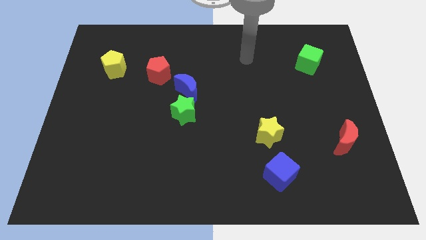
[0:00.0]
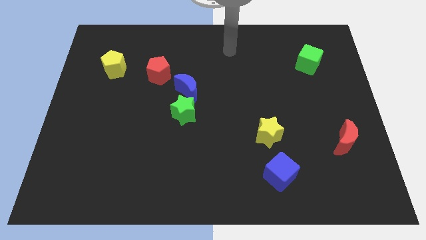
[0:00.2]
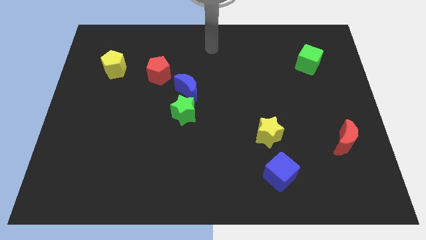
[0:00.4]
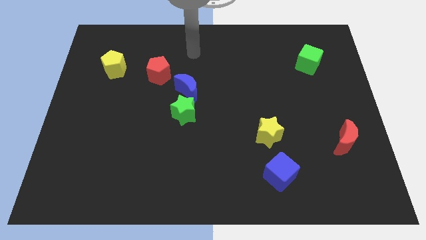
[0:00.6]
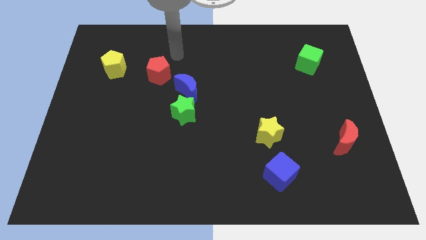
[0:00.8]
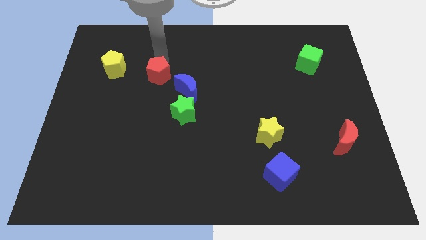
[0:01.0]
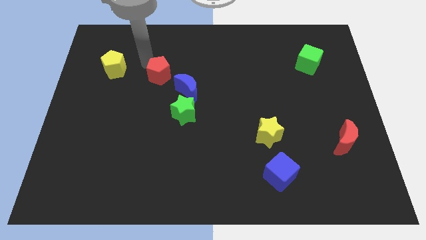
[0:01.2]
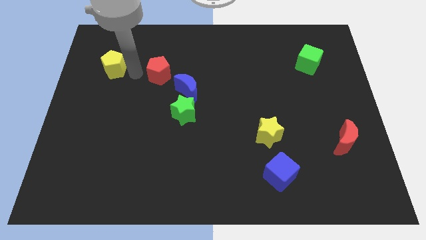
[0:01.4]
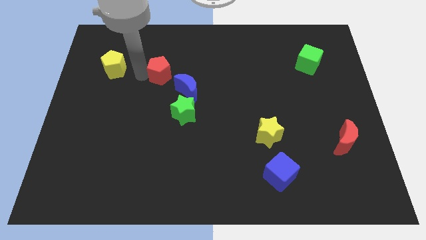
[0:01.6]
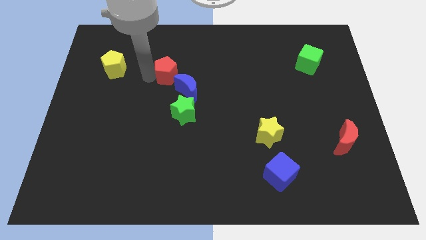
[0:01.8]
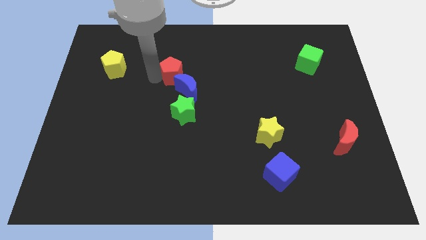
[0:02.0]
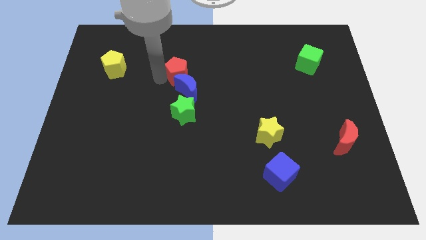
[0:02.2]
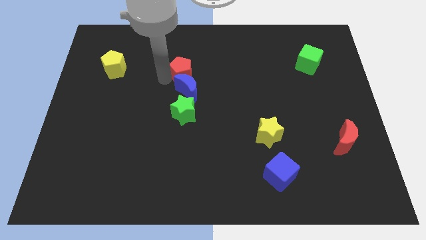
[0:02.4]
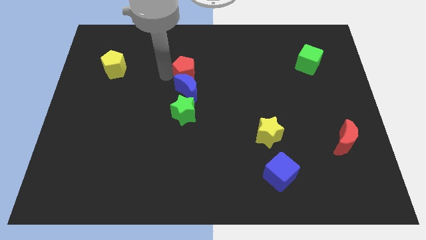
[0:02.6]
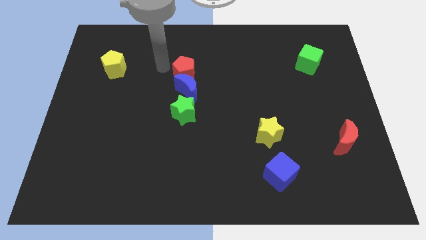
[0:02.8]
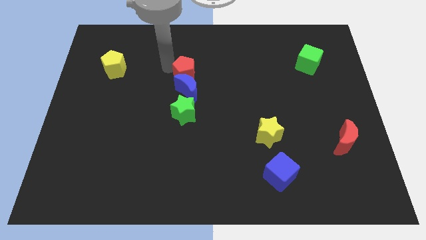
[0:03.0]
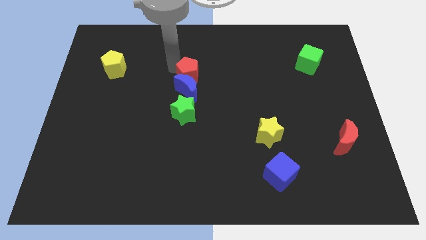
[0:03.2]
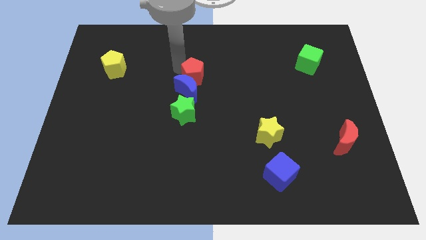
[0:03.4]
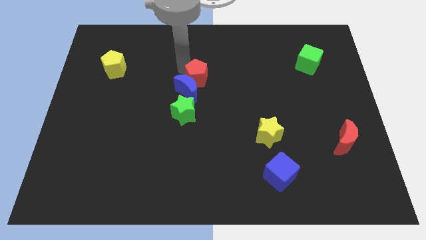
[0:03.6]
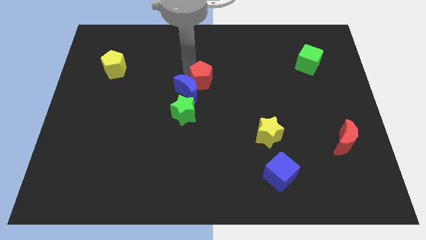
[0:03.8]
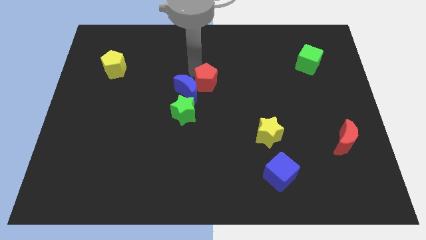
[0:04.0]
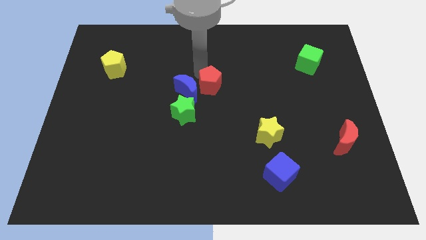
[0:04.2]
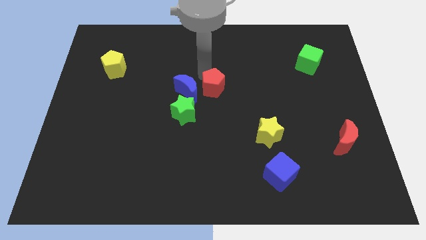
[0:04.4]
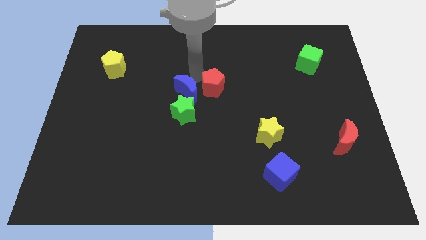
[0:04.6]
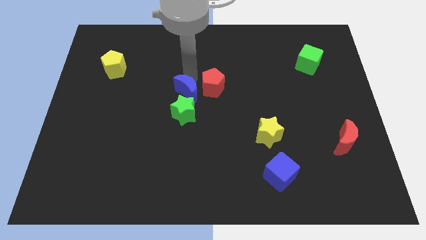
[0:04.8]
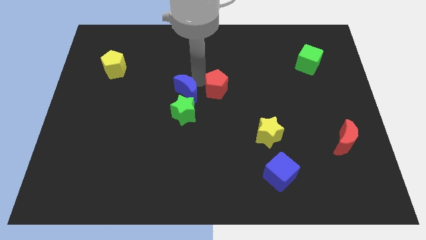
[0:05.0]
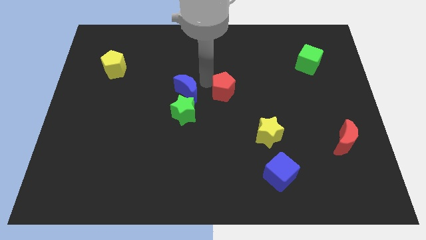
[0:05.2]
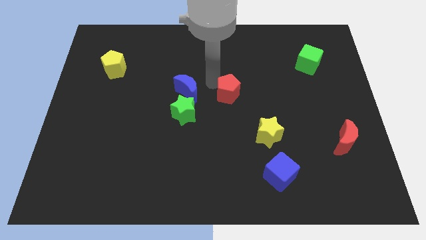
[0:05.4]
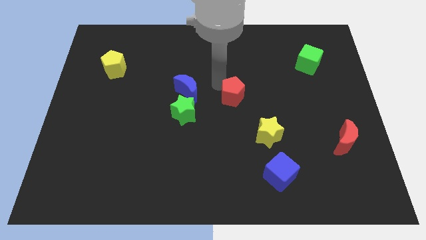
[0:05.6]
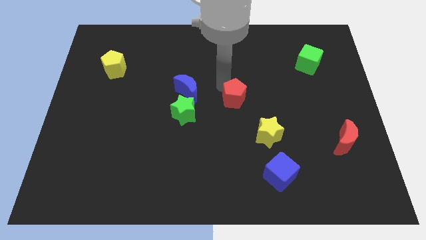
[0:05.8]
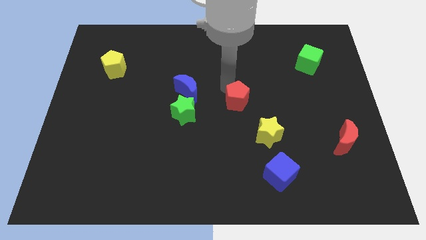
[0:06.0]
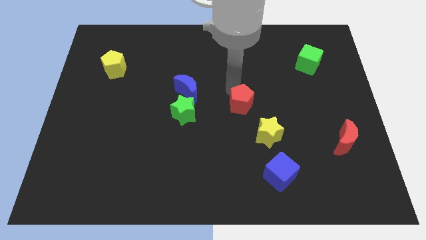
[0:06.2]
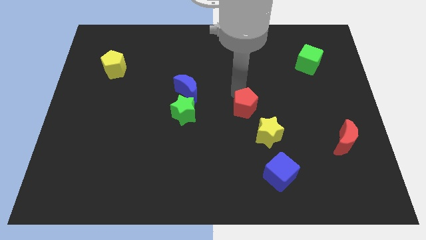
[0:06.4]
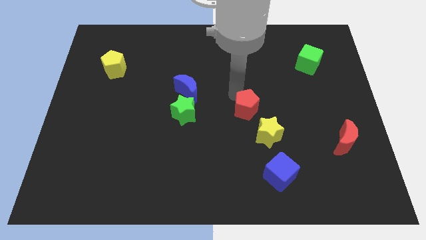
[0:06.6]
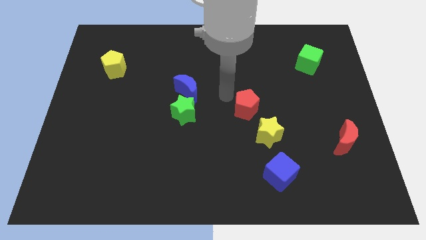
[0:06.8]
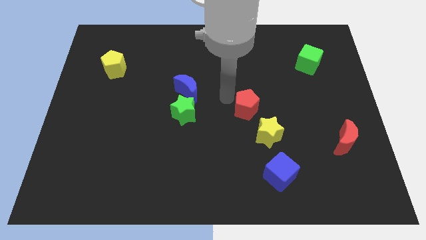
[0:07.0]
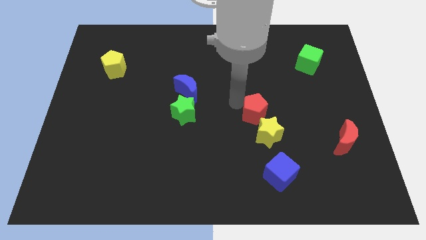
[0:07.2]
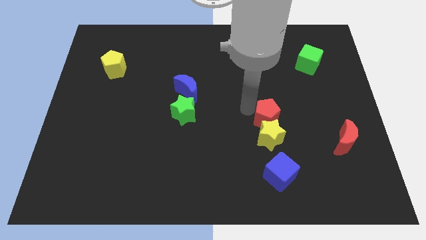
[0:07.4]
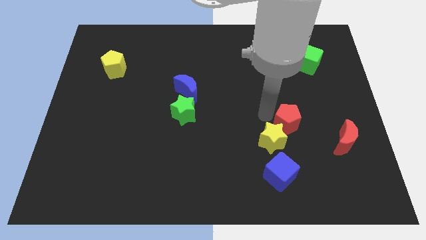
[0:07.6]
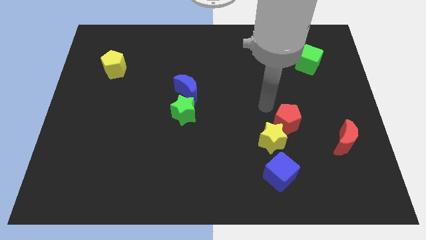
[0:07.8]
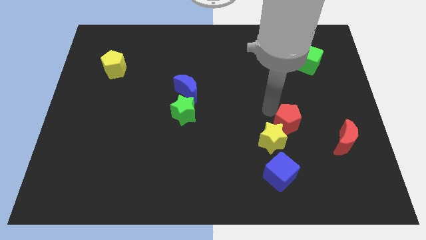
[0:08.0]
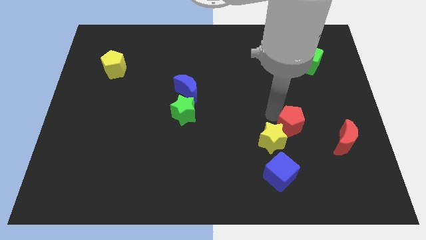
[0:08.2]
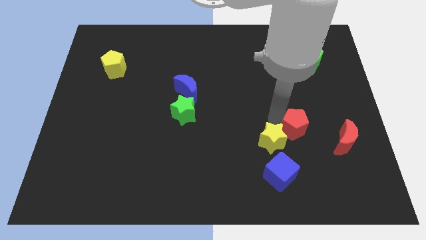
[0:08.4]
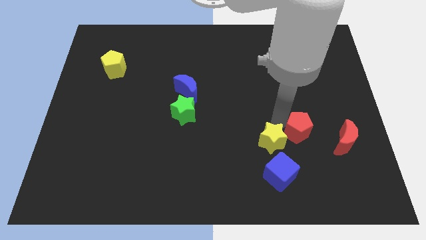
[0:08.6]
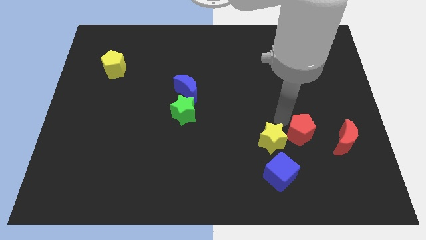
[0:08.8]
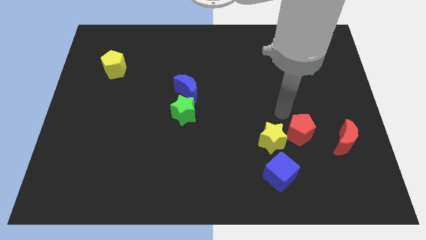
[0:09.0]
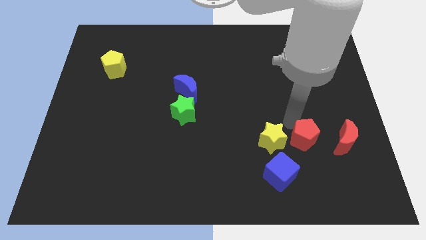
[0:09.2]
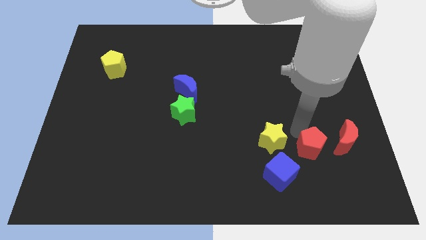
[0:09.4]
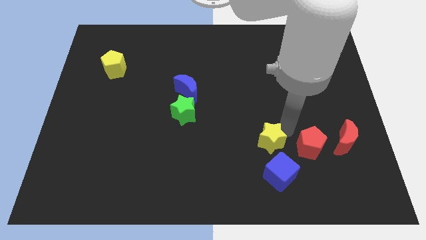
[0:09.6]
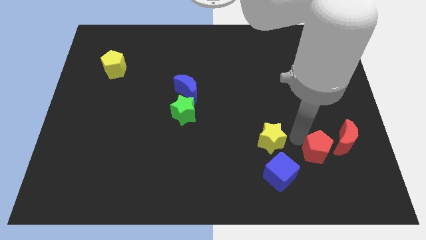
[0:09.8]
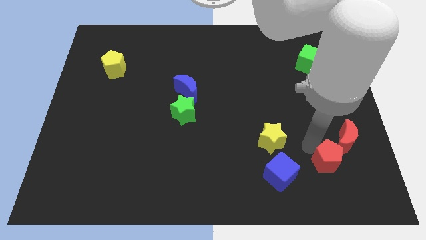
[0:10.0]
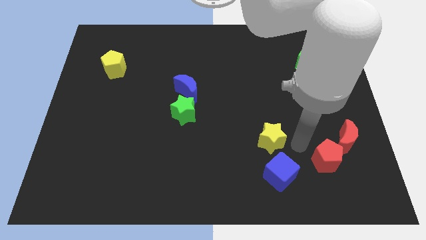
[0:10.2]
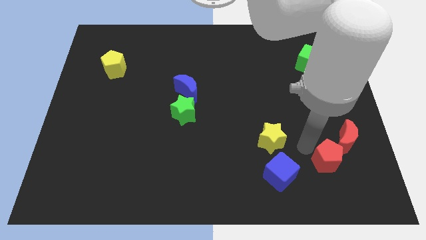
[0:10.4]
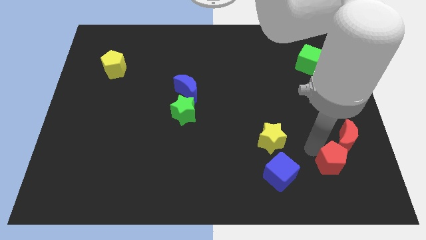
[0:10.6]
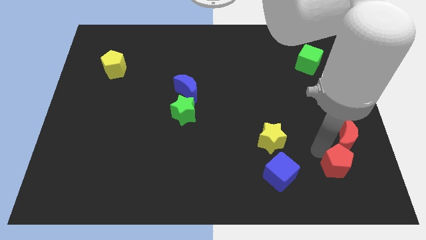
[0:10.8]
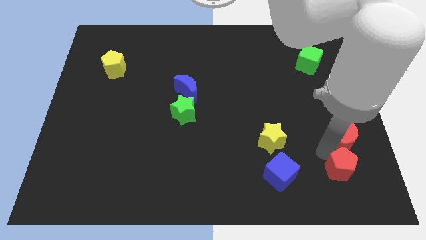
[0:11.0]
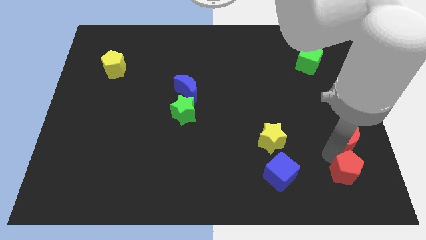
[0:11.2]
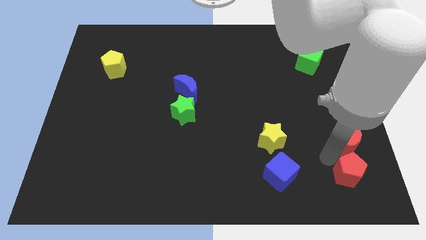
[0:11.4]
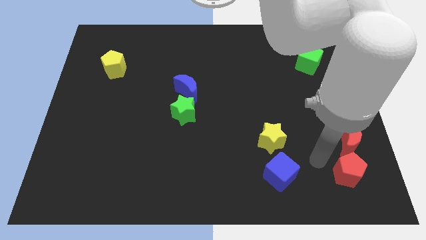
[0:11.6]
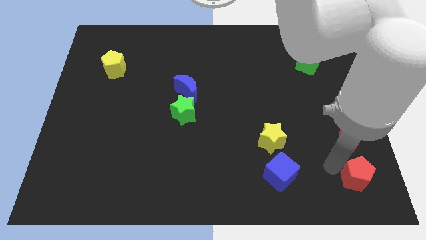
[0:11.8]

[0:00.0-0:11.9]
put the red pentagon to the bottom right corner

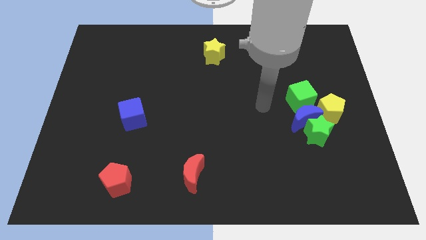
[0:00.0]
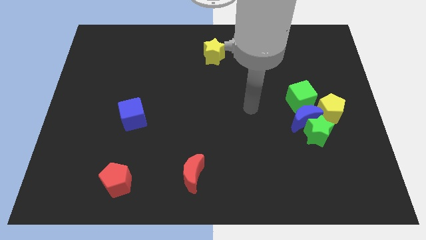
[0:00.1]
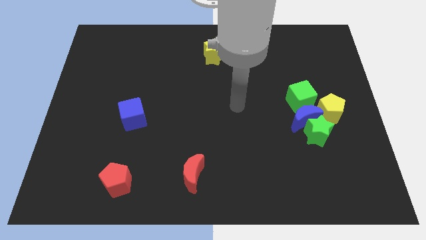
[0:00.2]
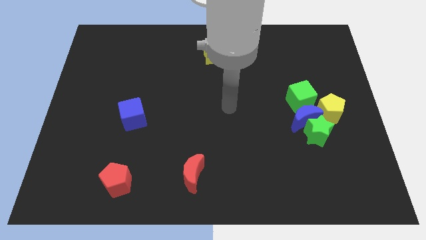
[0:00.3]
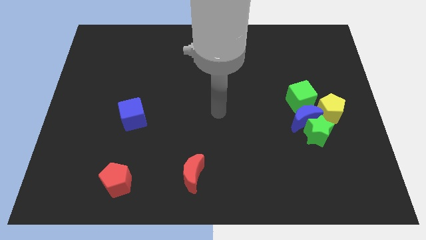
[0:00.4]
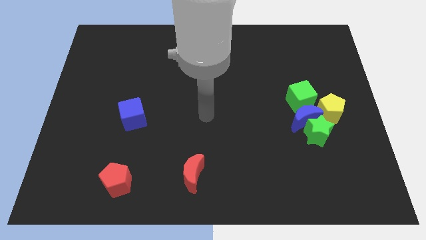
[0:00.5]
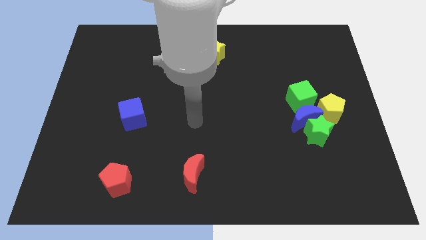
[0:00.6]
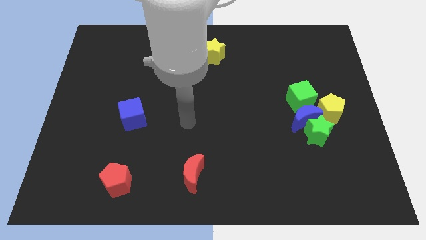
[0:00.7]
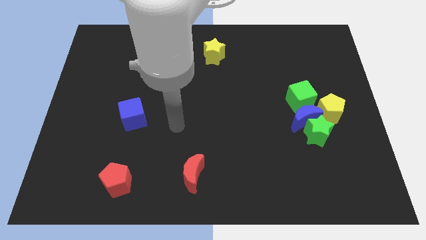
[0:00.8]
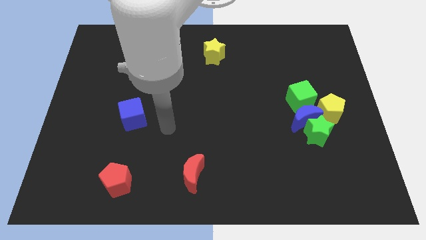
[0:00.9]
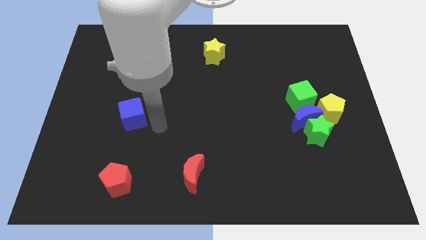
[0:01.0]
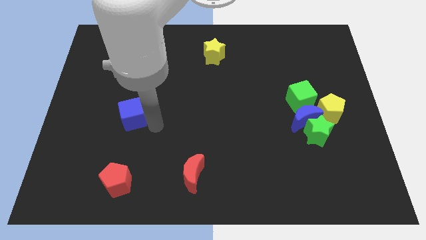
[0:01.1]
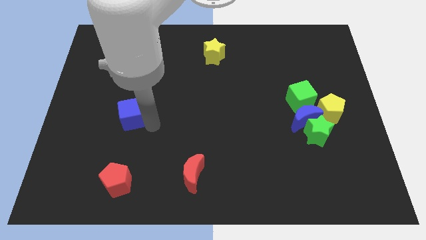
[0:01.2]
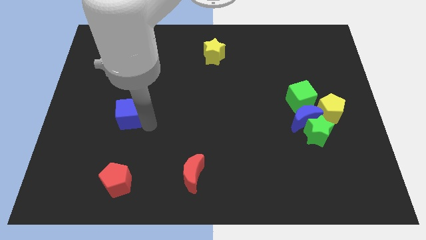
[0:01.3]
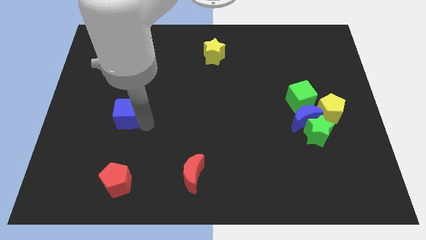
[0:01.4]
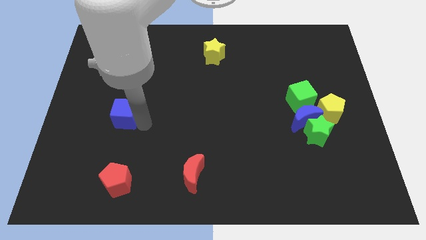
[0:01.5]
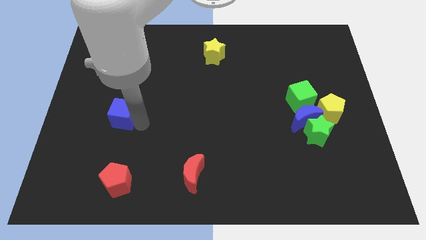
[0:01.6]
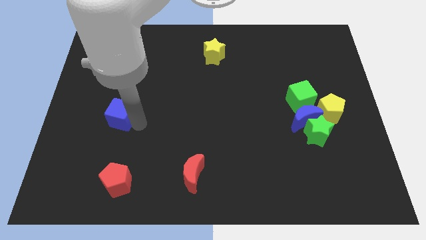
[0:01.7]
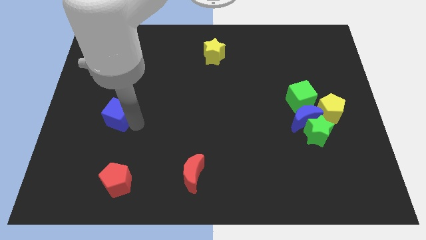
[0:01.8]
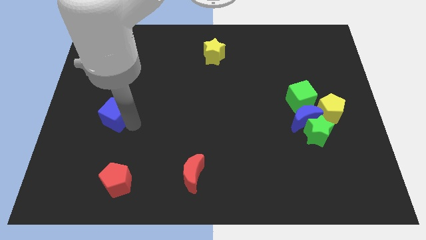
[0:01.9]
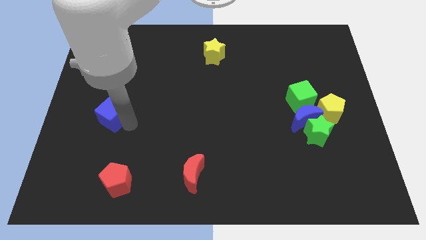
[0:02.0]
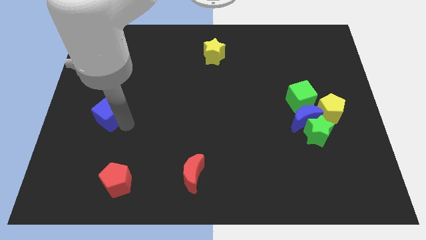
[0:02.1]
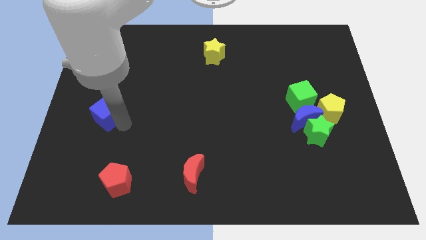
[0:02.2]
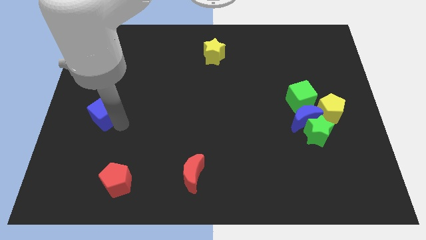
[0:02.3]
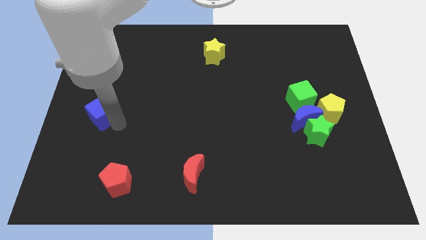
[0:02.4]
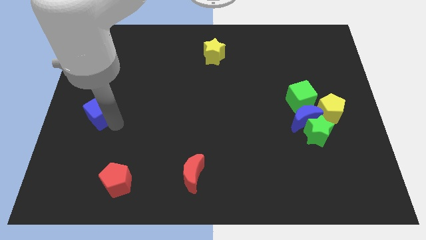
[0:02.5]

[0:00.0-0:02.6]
move the blue cube to the left side of the board
